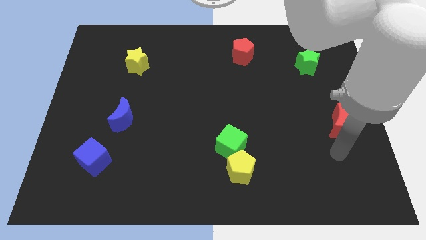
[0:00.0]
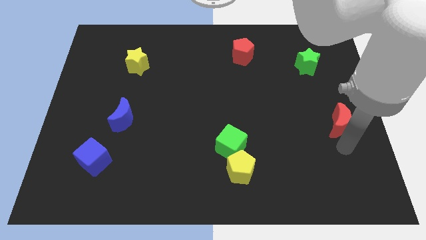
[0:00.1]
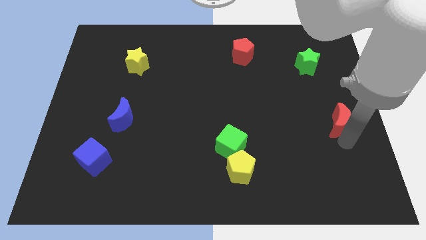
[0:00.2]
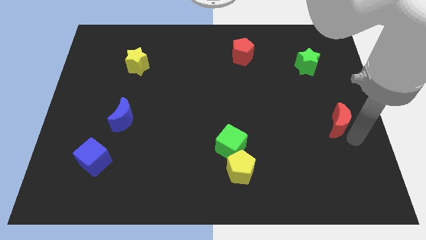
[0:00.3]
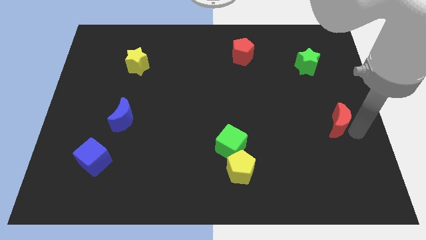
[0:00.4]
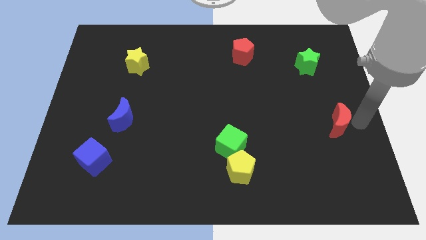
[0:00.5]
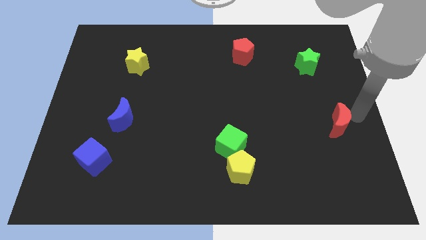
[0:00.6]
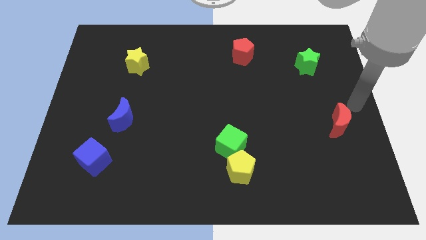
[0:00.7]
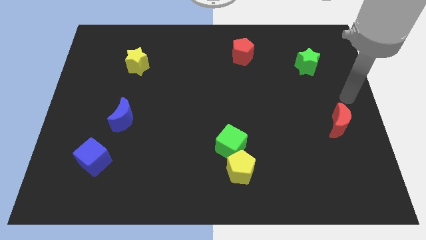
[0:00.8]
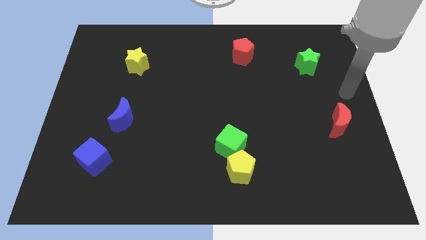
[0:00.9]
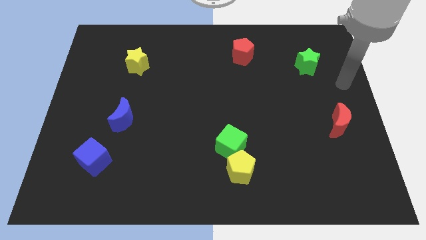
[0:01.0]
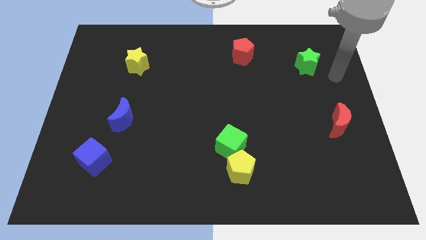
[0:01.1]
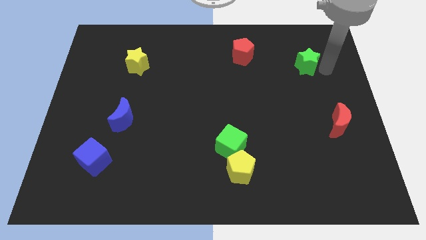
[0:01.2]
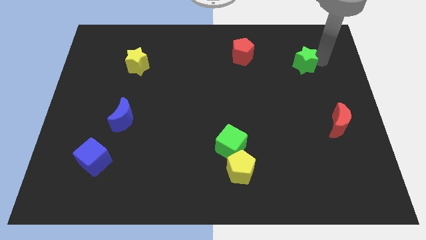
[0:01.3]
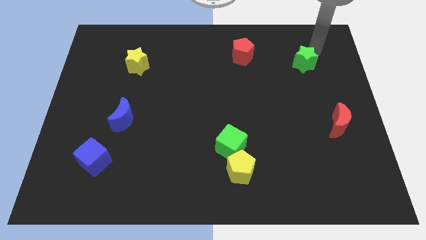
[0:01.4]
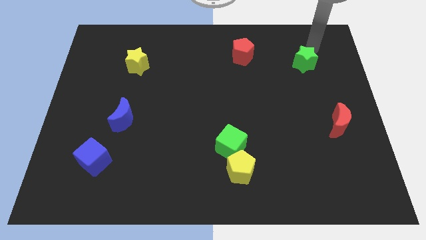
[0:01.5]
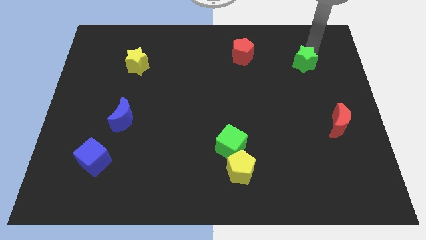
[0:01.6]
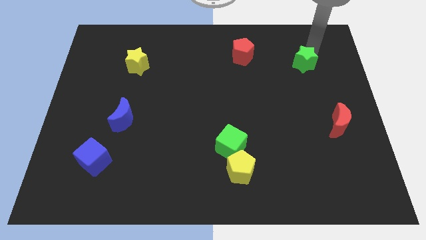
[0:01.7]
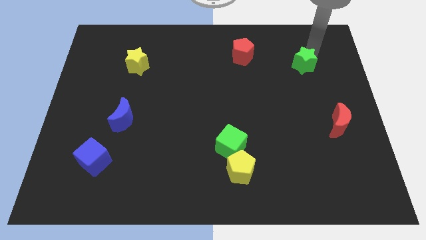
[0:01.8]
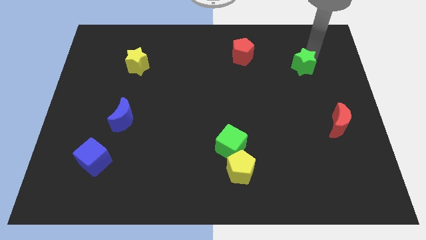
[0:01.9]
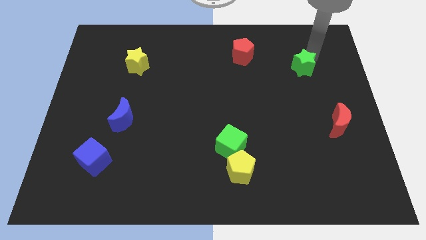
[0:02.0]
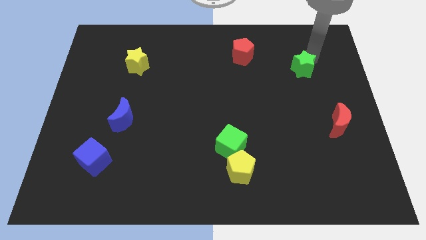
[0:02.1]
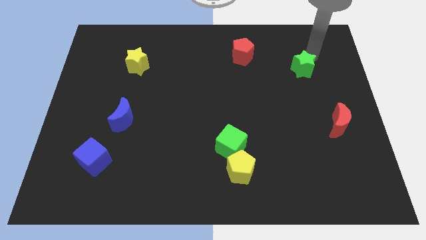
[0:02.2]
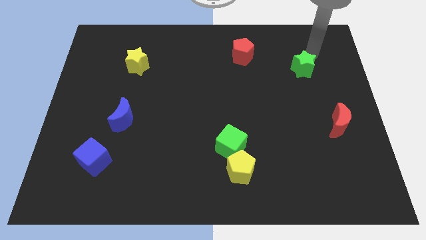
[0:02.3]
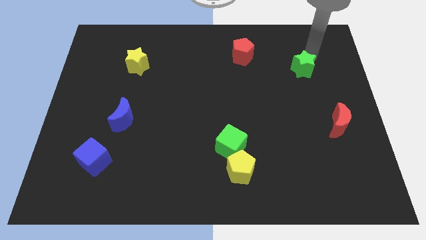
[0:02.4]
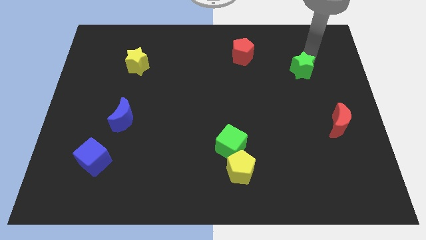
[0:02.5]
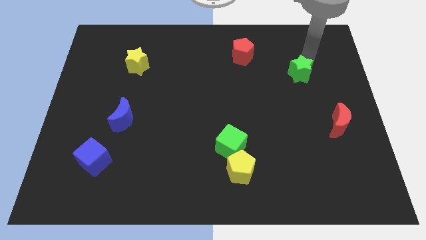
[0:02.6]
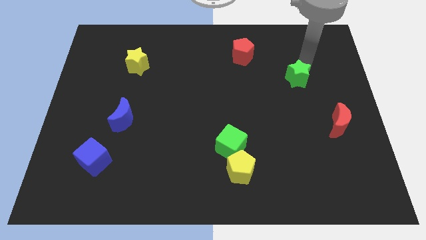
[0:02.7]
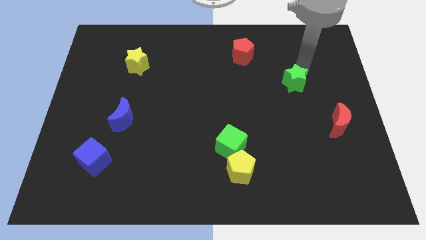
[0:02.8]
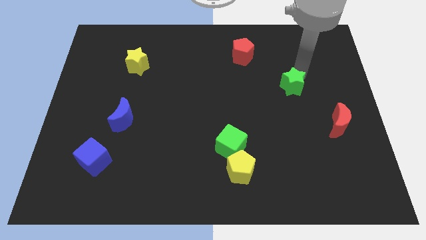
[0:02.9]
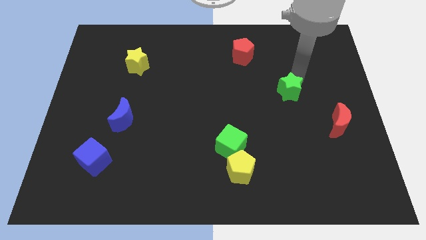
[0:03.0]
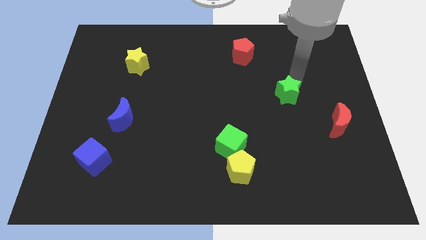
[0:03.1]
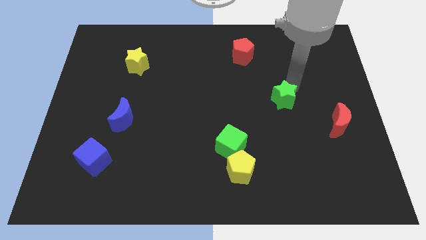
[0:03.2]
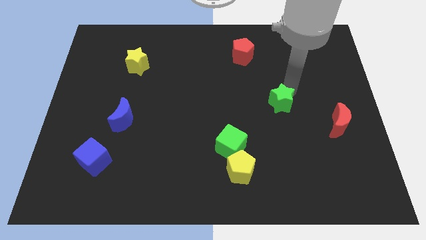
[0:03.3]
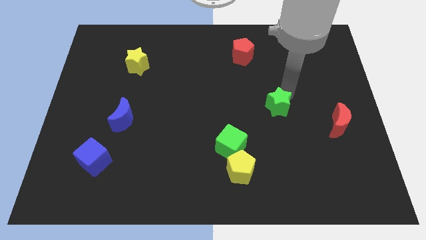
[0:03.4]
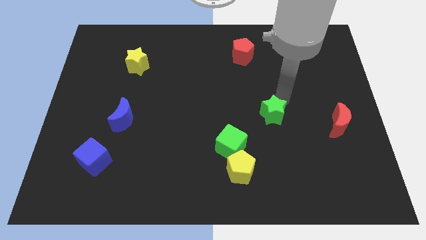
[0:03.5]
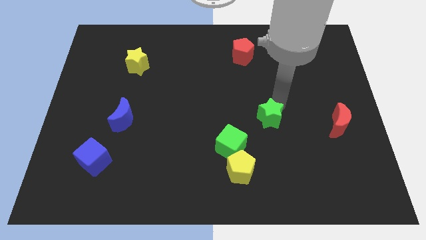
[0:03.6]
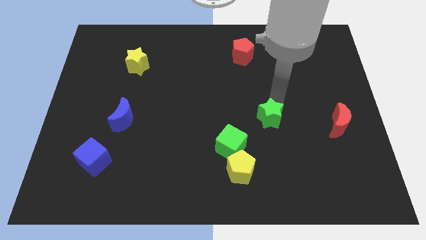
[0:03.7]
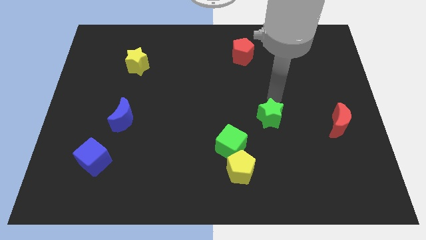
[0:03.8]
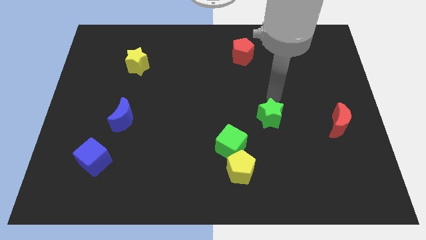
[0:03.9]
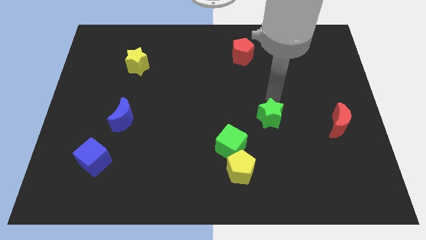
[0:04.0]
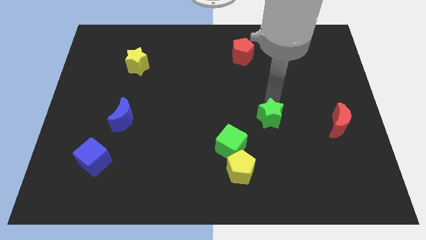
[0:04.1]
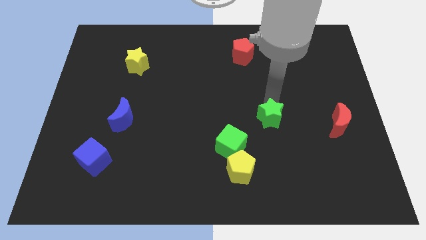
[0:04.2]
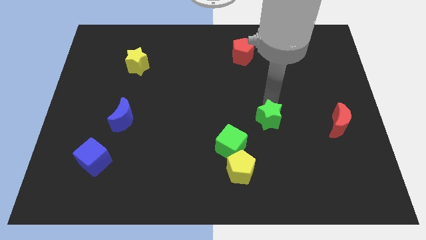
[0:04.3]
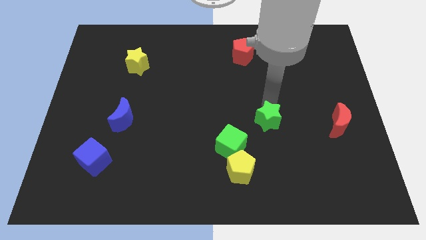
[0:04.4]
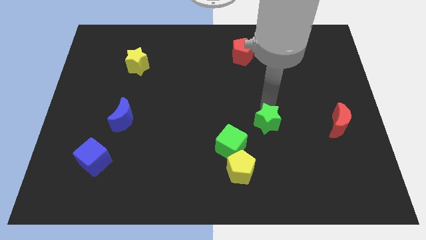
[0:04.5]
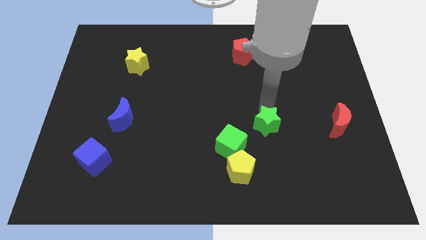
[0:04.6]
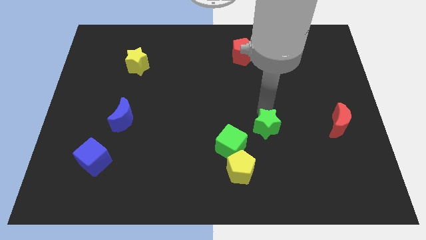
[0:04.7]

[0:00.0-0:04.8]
put the green star to the top right of the yellow pentagon

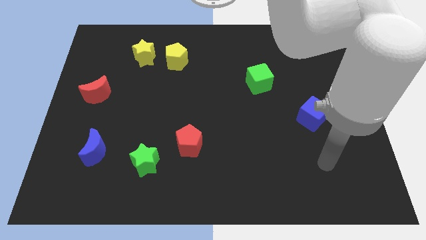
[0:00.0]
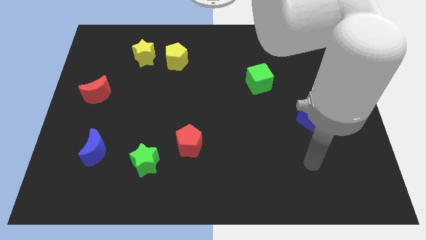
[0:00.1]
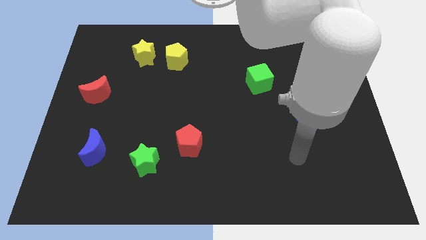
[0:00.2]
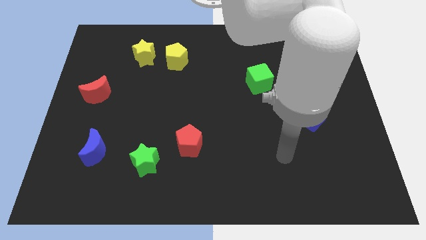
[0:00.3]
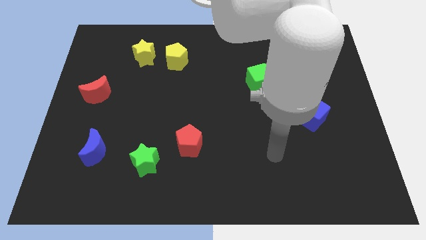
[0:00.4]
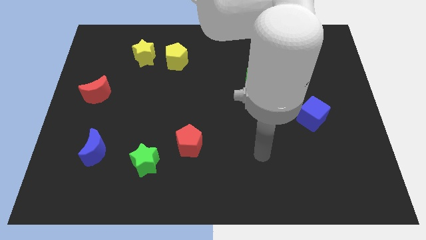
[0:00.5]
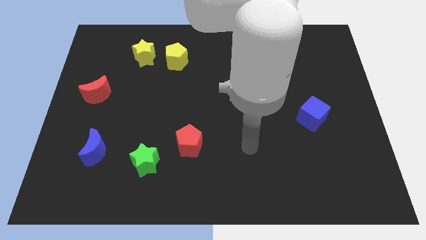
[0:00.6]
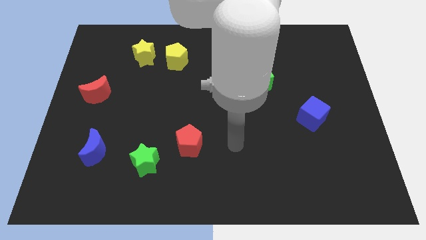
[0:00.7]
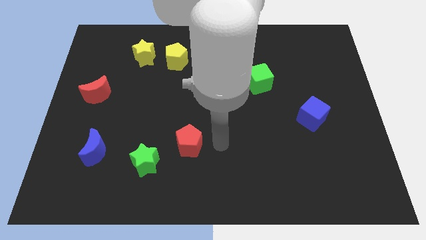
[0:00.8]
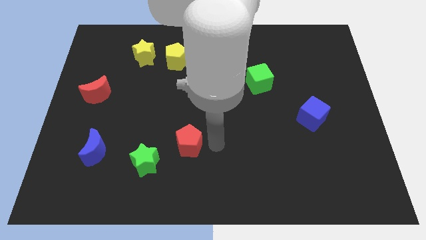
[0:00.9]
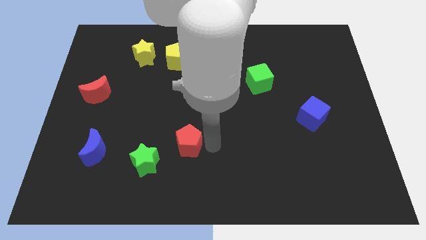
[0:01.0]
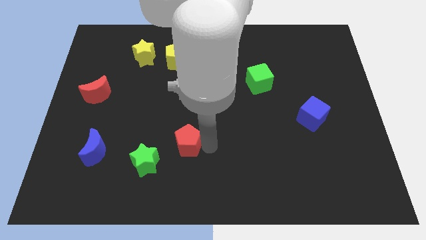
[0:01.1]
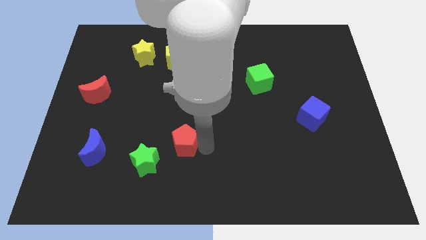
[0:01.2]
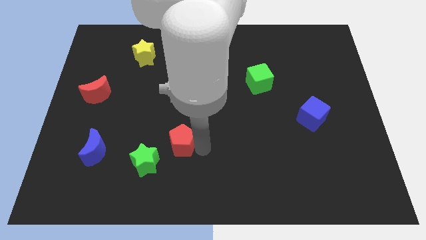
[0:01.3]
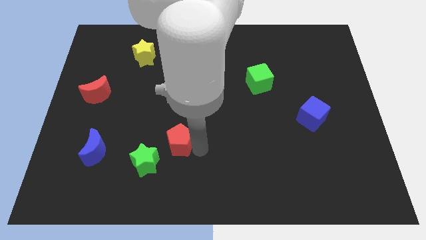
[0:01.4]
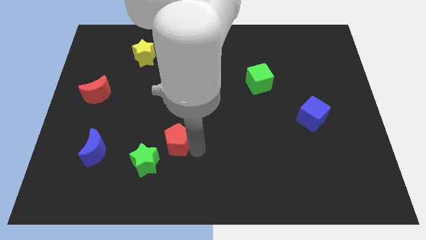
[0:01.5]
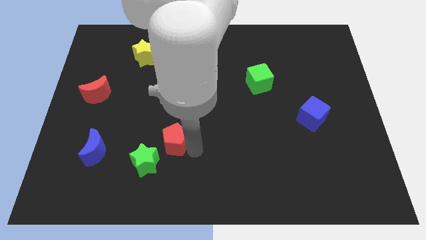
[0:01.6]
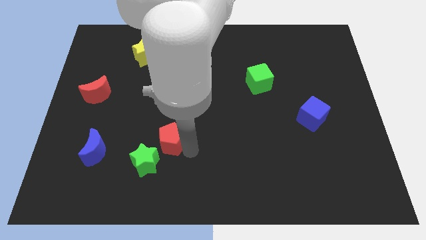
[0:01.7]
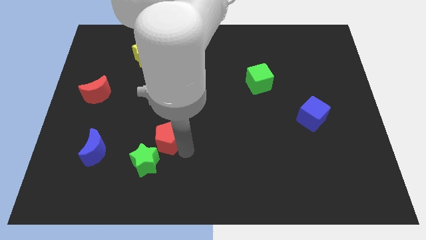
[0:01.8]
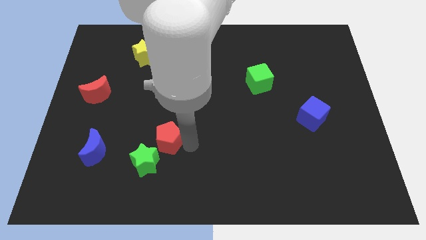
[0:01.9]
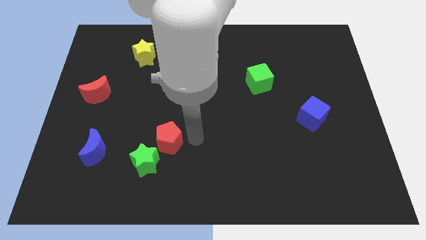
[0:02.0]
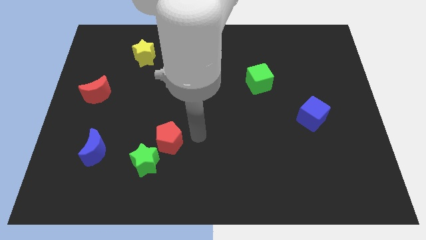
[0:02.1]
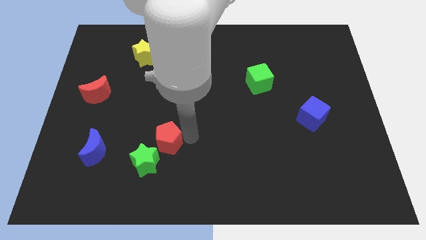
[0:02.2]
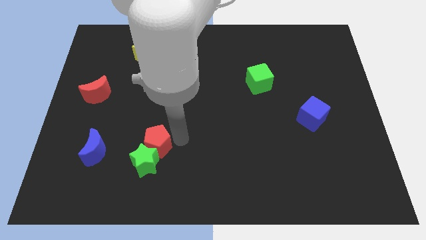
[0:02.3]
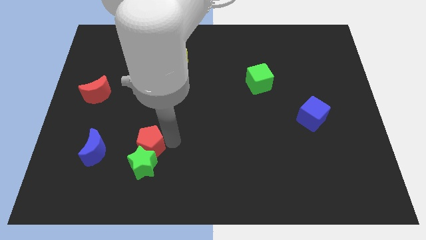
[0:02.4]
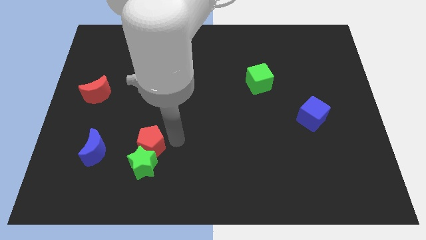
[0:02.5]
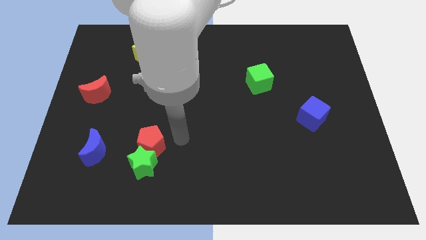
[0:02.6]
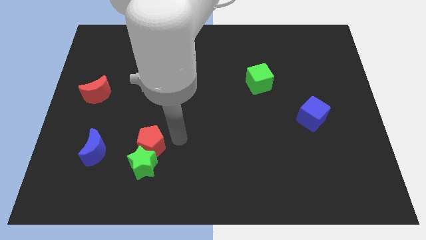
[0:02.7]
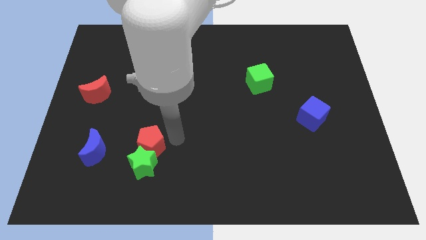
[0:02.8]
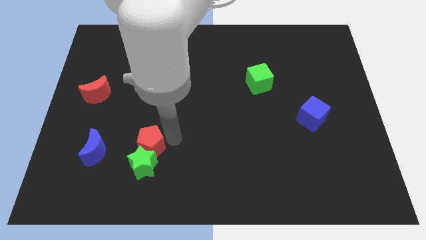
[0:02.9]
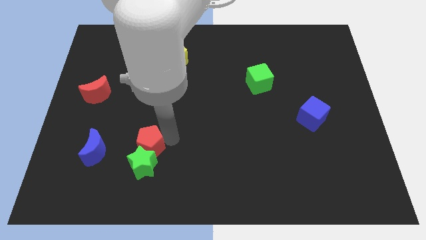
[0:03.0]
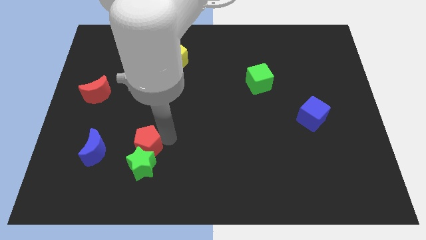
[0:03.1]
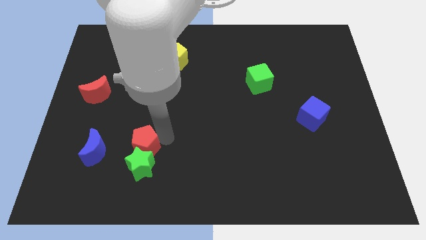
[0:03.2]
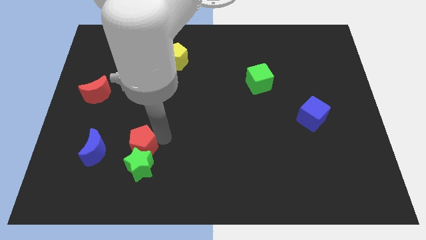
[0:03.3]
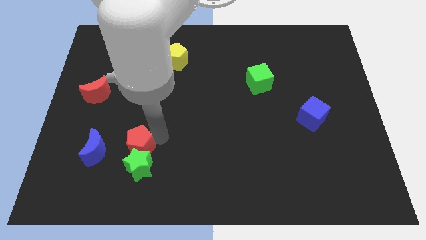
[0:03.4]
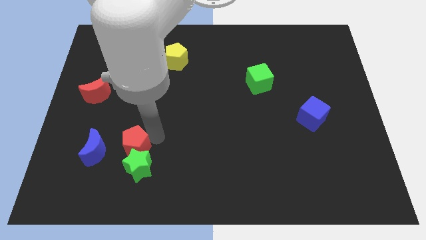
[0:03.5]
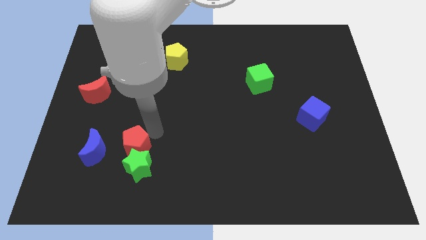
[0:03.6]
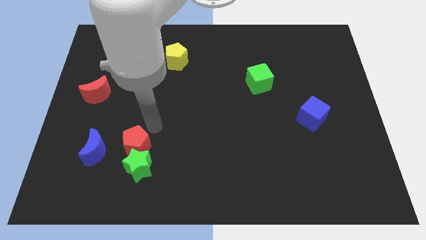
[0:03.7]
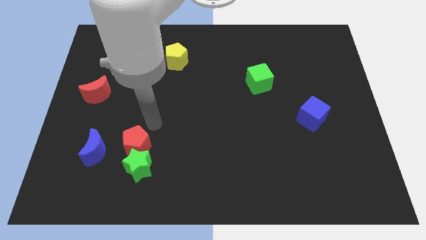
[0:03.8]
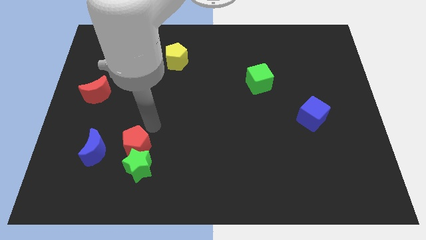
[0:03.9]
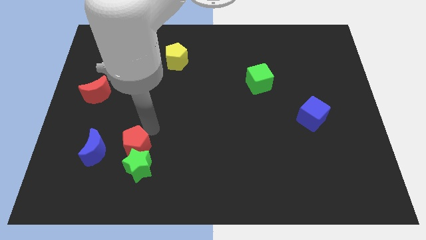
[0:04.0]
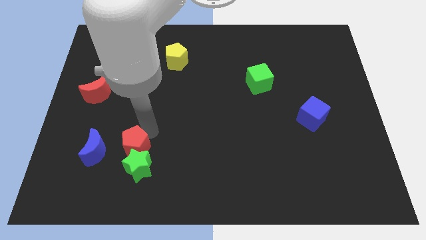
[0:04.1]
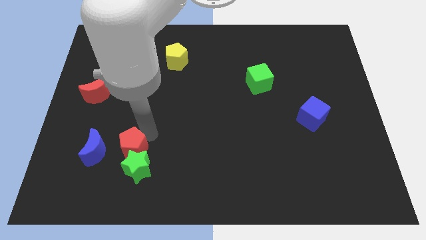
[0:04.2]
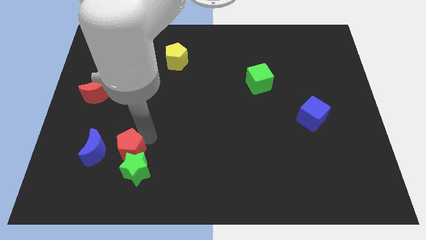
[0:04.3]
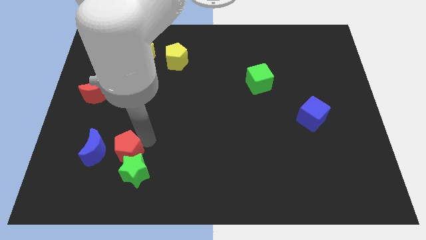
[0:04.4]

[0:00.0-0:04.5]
slide the red pentagon to the bottom right side of the blue moon
